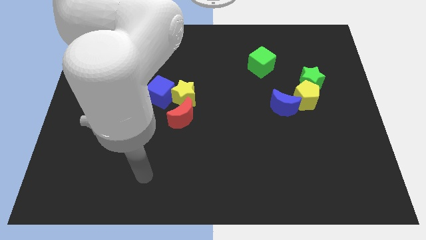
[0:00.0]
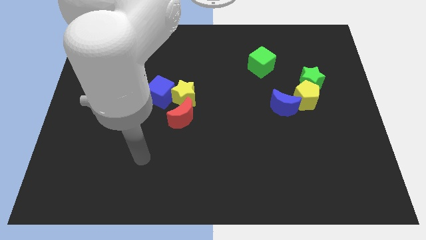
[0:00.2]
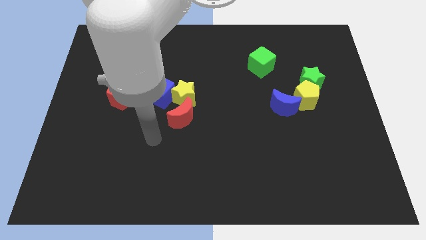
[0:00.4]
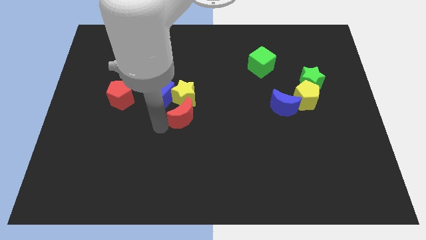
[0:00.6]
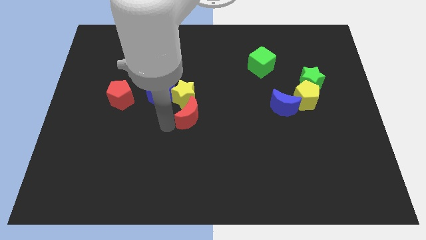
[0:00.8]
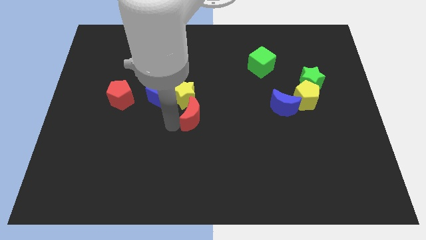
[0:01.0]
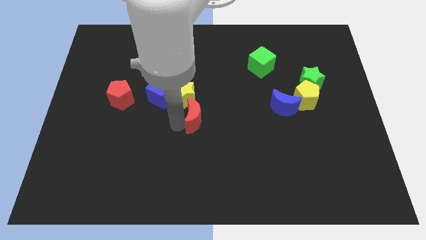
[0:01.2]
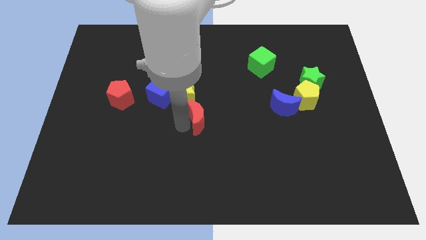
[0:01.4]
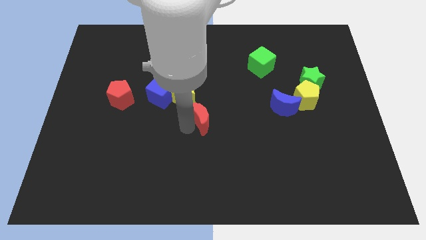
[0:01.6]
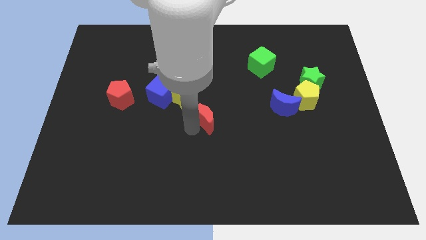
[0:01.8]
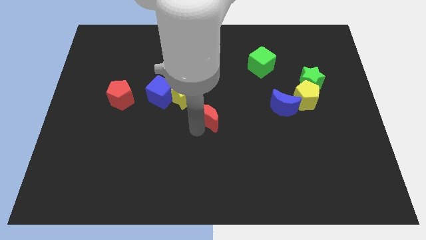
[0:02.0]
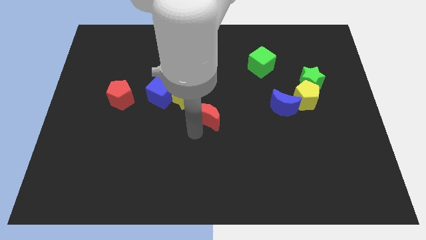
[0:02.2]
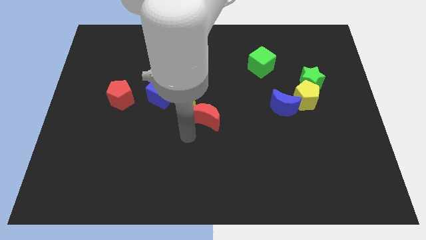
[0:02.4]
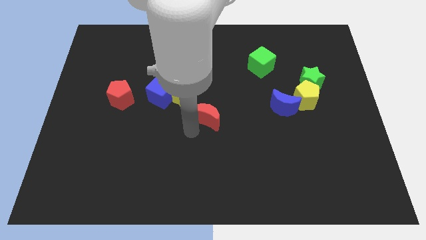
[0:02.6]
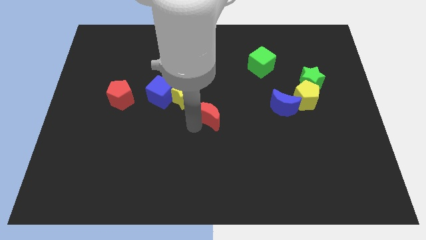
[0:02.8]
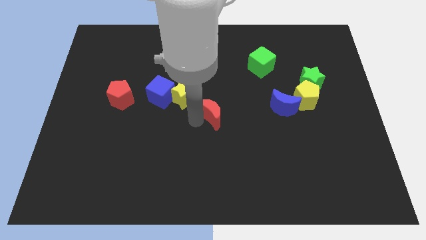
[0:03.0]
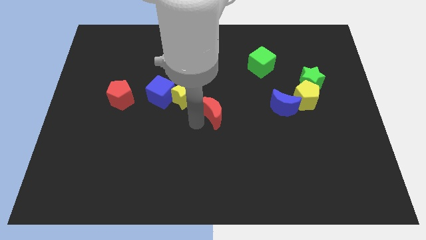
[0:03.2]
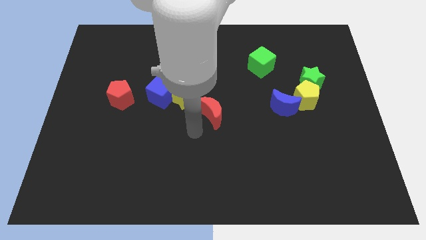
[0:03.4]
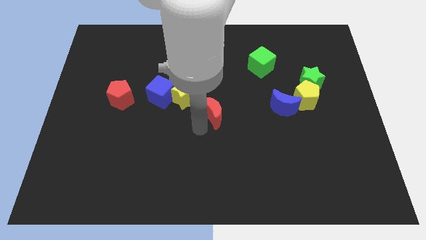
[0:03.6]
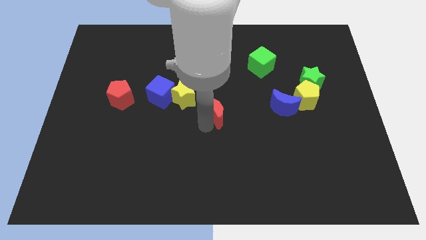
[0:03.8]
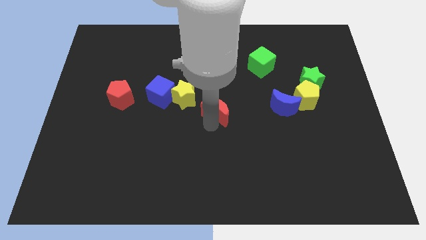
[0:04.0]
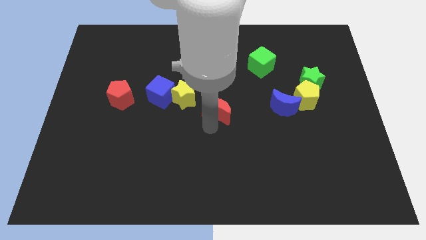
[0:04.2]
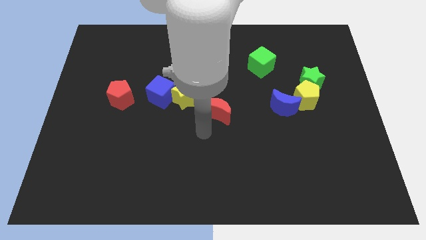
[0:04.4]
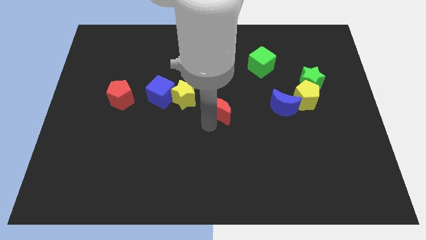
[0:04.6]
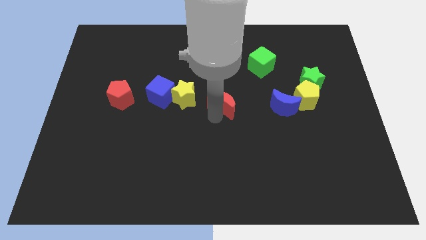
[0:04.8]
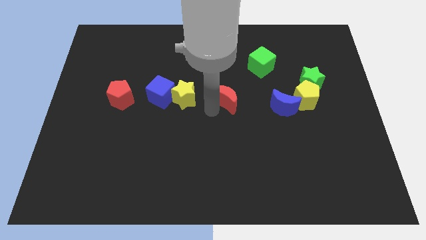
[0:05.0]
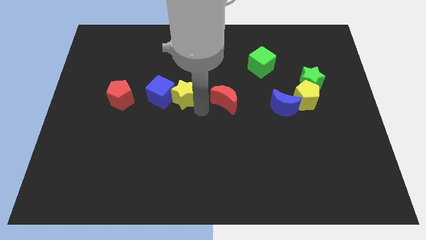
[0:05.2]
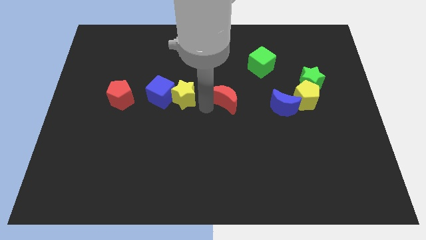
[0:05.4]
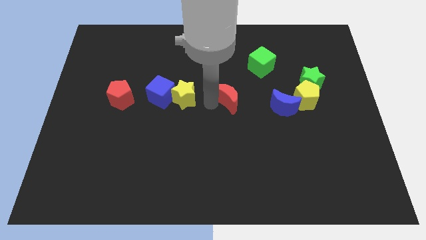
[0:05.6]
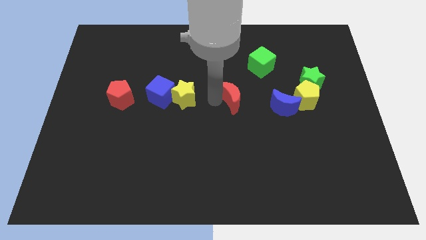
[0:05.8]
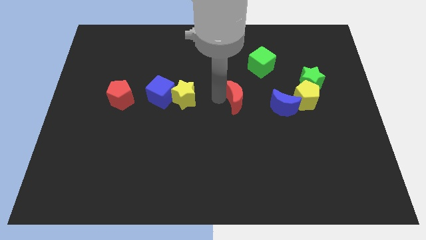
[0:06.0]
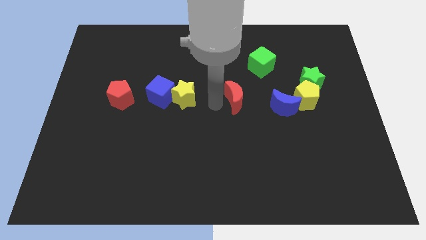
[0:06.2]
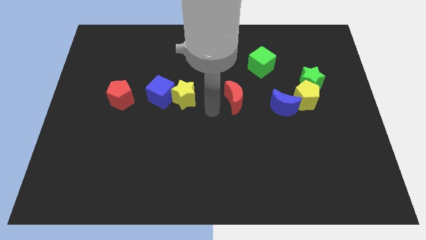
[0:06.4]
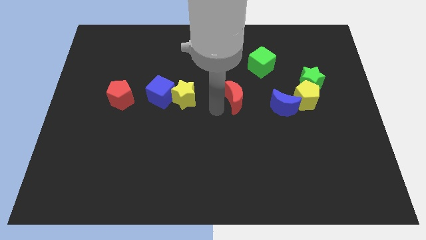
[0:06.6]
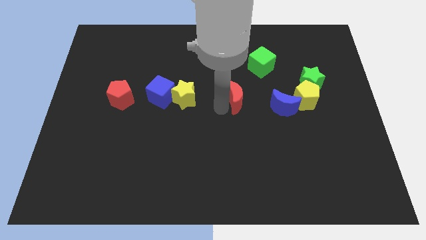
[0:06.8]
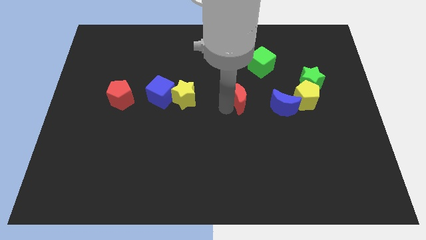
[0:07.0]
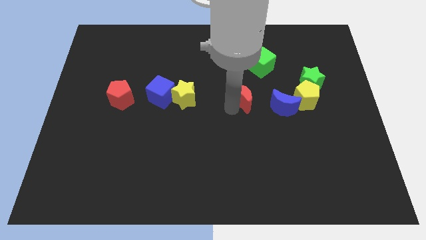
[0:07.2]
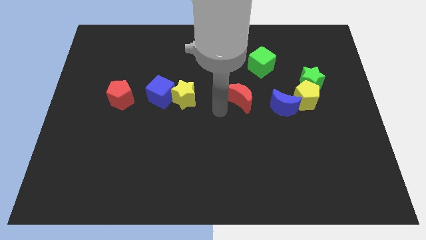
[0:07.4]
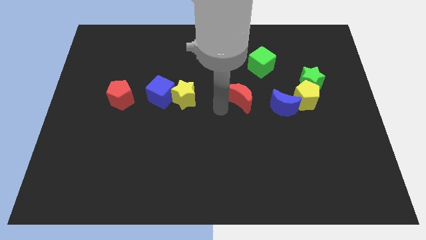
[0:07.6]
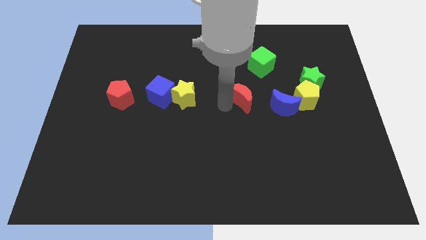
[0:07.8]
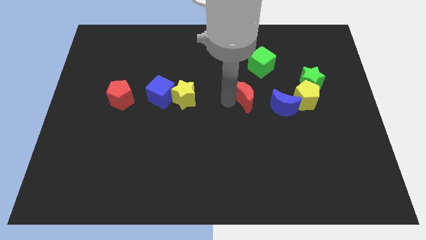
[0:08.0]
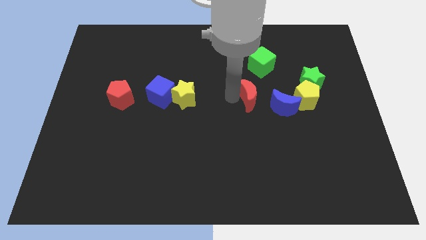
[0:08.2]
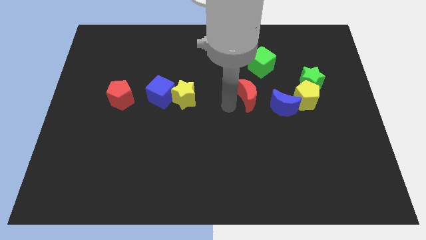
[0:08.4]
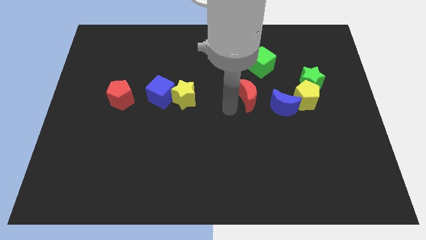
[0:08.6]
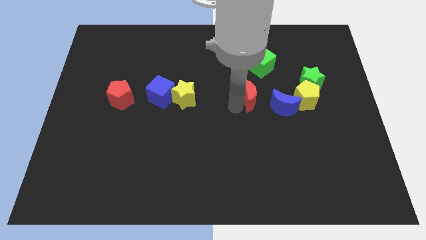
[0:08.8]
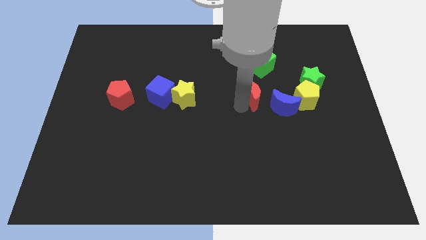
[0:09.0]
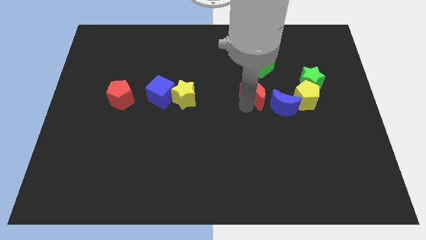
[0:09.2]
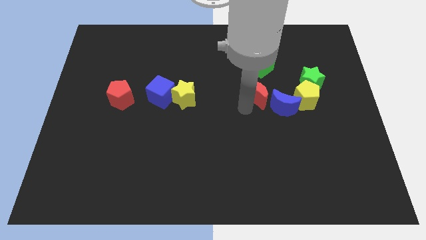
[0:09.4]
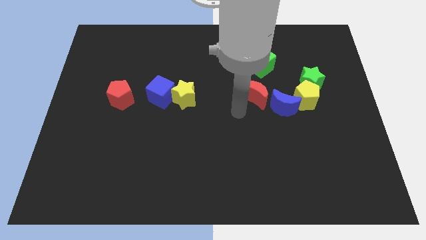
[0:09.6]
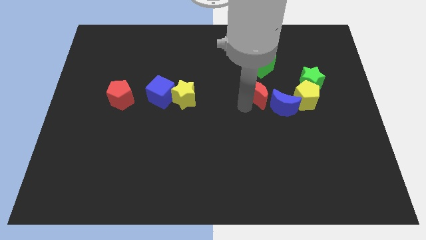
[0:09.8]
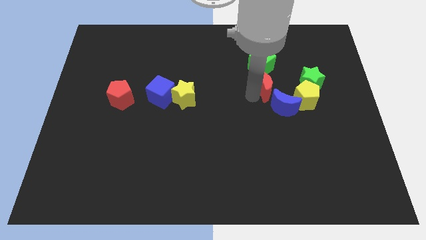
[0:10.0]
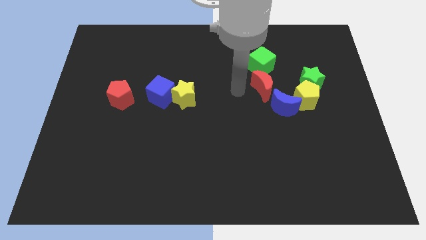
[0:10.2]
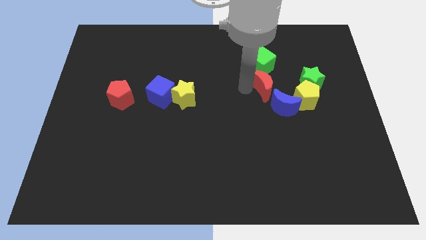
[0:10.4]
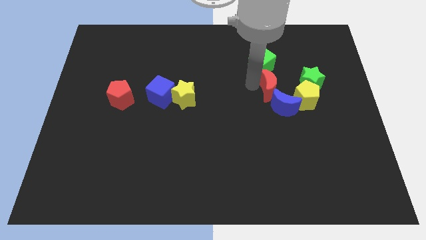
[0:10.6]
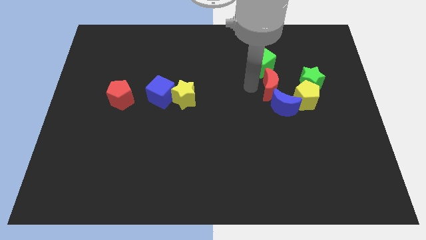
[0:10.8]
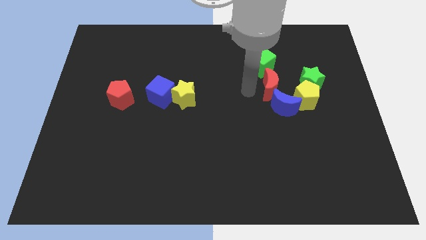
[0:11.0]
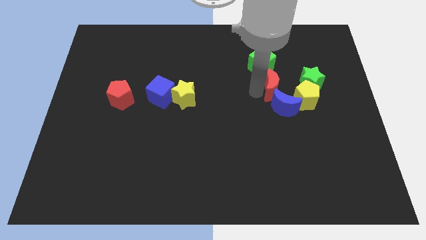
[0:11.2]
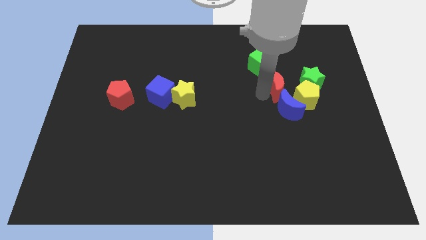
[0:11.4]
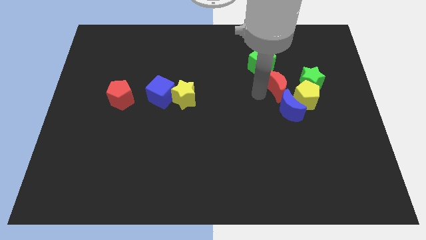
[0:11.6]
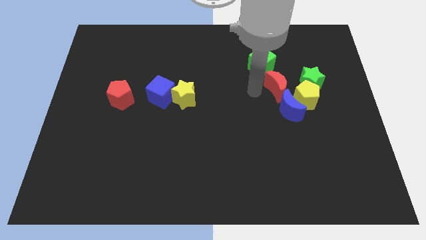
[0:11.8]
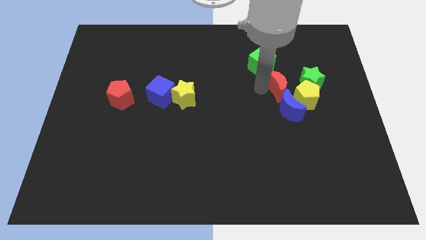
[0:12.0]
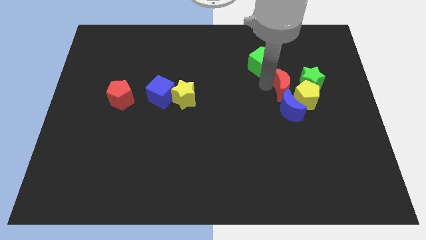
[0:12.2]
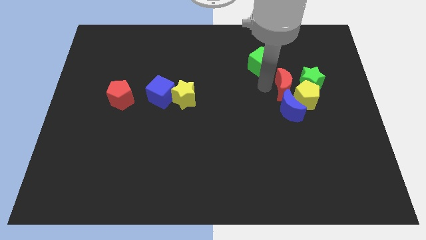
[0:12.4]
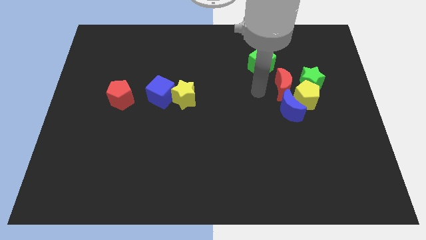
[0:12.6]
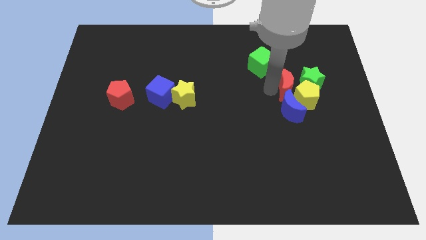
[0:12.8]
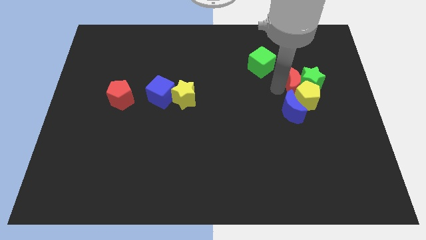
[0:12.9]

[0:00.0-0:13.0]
slide the red moon to the green star

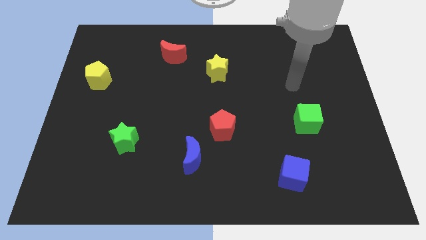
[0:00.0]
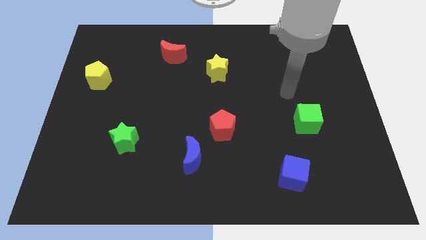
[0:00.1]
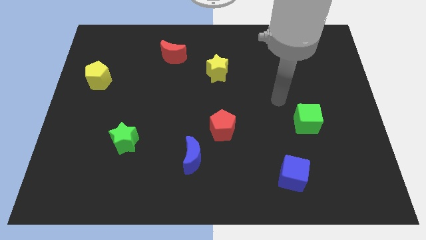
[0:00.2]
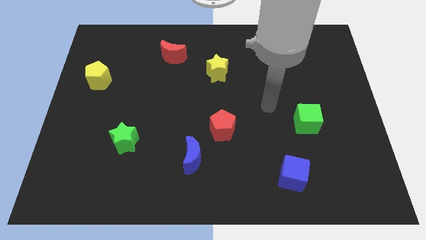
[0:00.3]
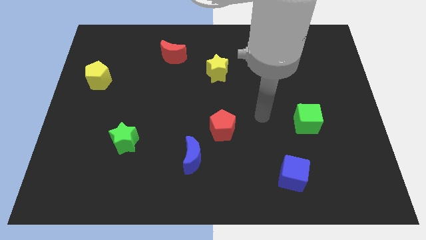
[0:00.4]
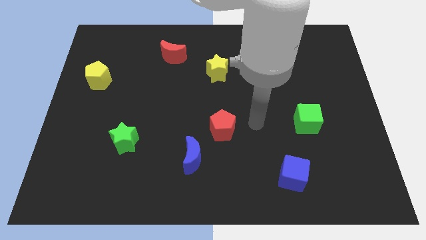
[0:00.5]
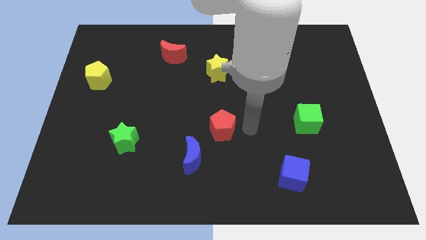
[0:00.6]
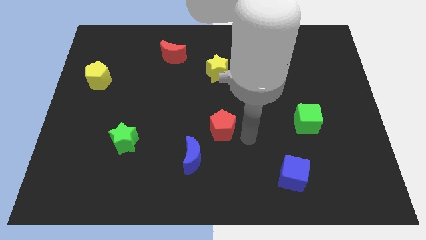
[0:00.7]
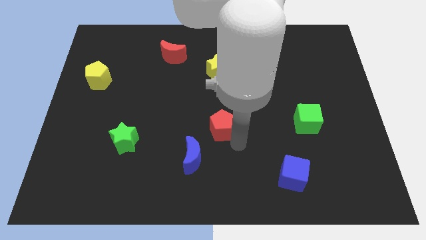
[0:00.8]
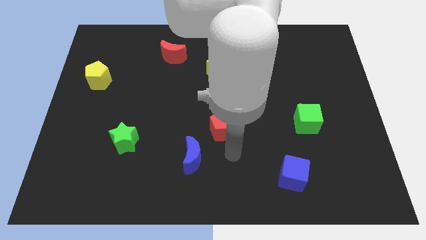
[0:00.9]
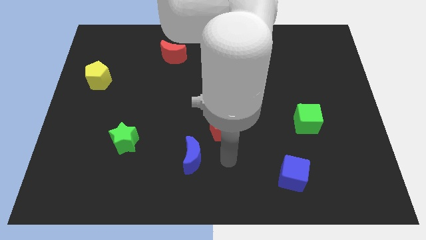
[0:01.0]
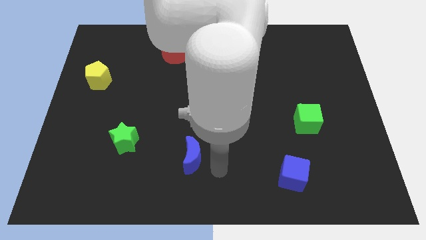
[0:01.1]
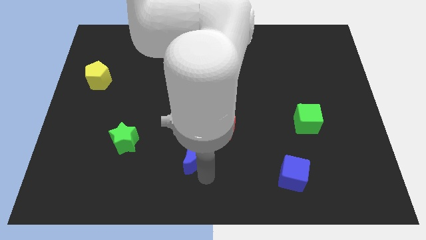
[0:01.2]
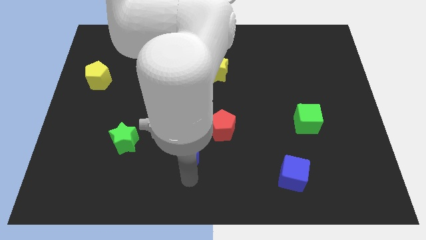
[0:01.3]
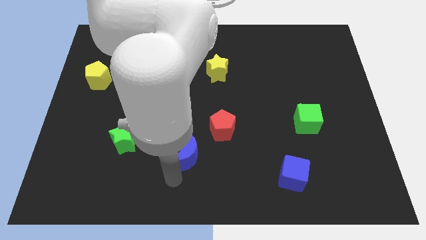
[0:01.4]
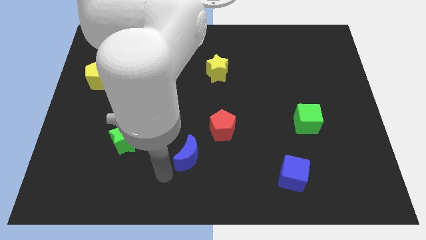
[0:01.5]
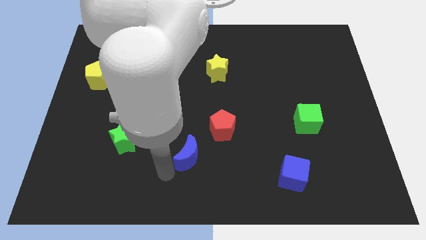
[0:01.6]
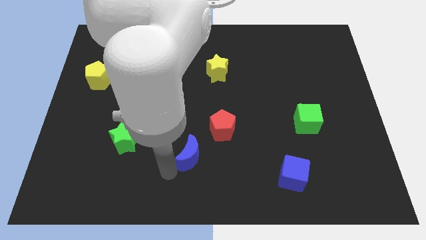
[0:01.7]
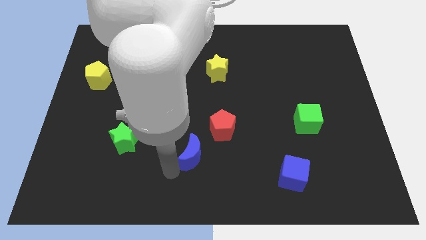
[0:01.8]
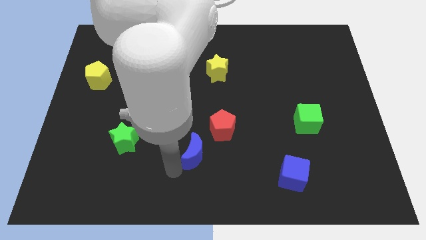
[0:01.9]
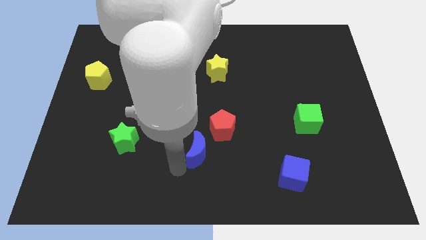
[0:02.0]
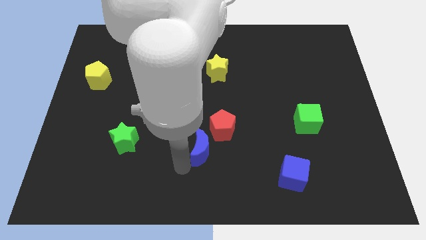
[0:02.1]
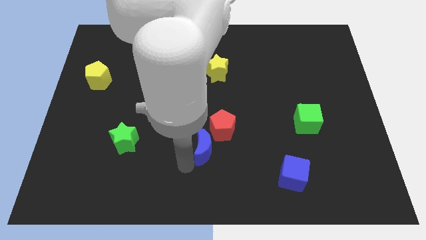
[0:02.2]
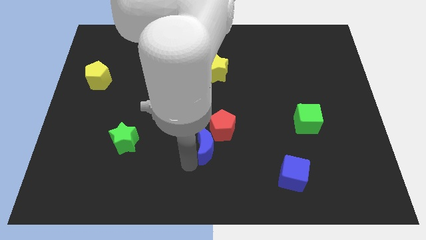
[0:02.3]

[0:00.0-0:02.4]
move the blue moon towards the red pentagon
